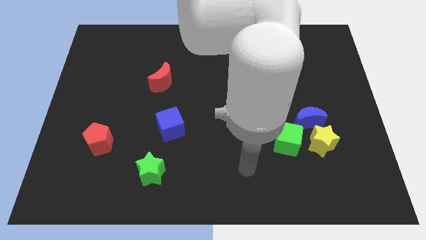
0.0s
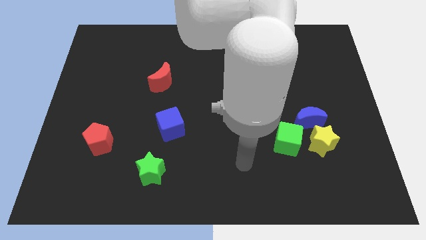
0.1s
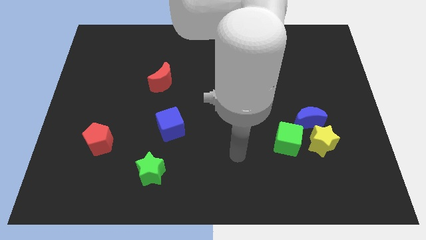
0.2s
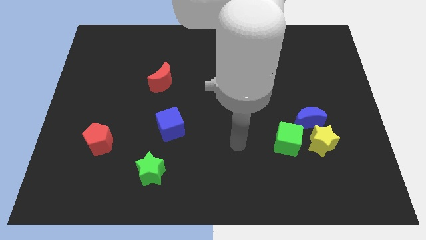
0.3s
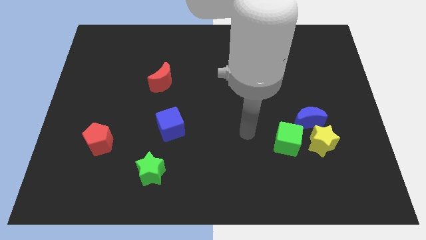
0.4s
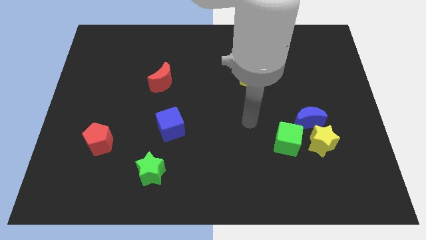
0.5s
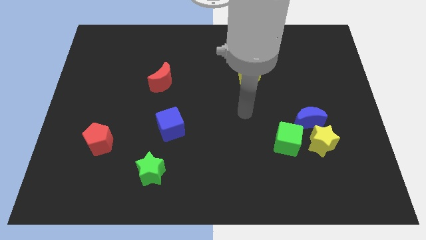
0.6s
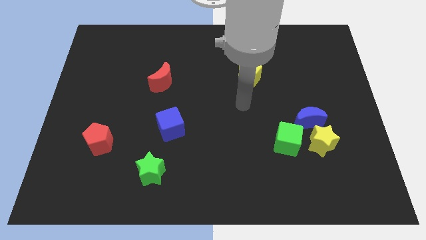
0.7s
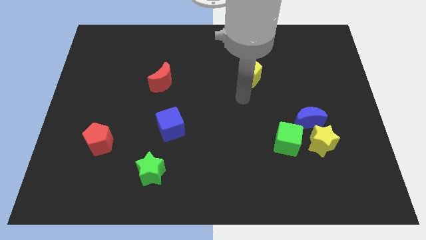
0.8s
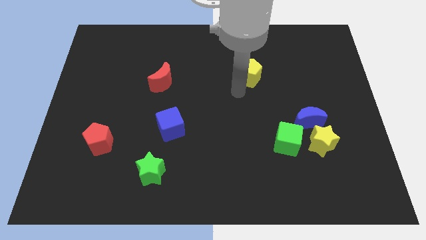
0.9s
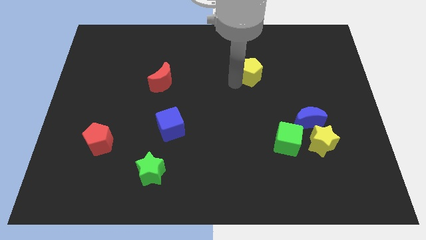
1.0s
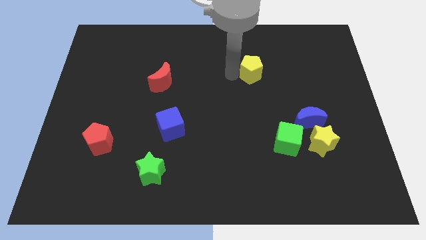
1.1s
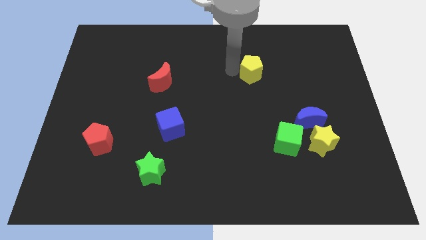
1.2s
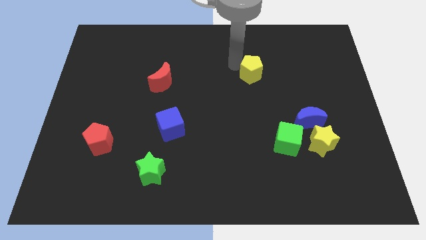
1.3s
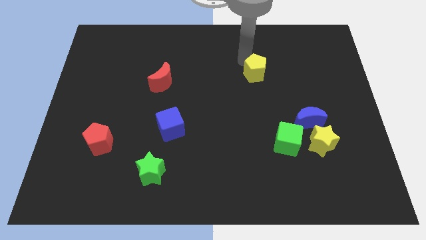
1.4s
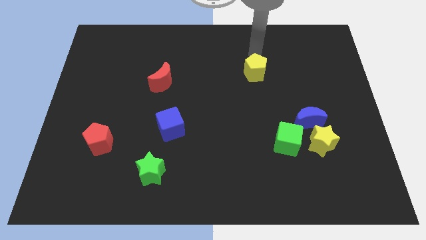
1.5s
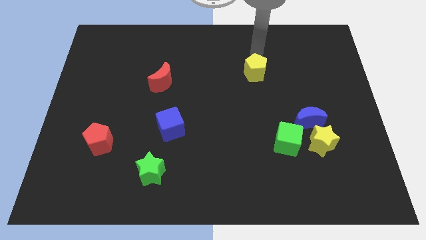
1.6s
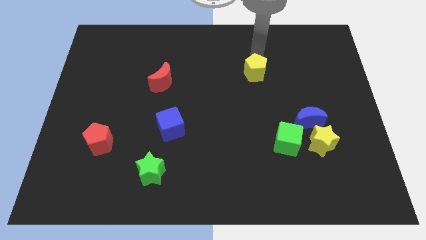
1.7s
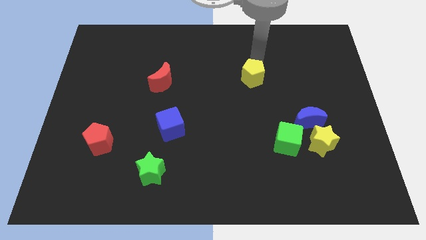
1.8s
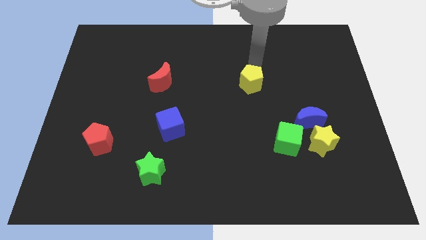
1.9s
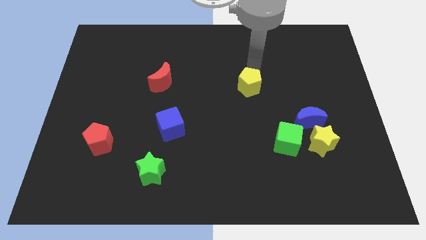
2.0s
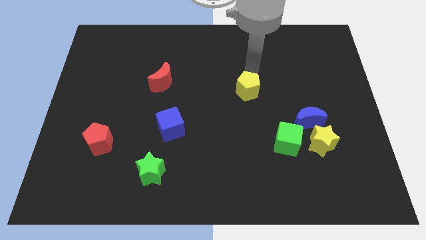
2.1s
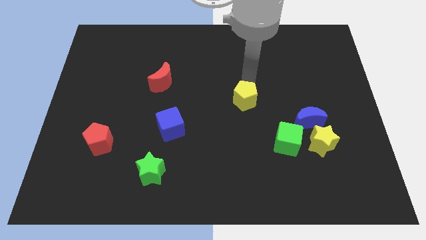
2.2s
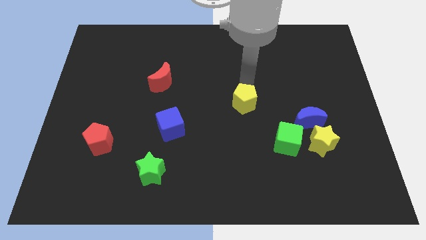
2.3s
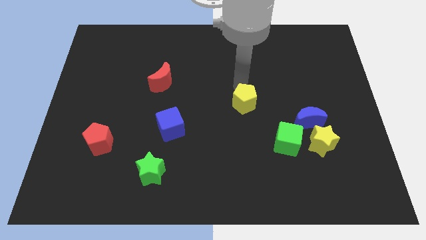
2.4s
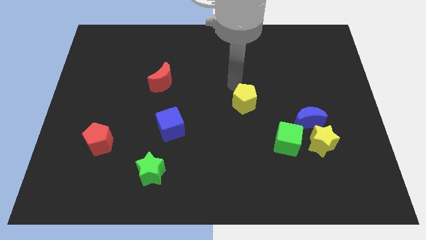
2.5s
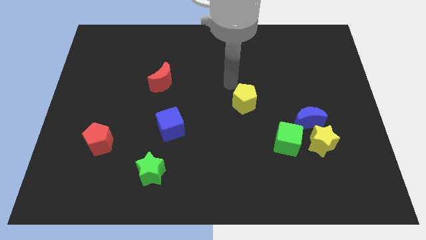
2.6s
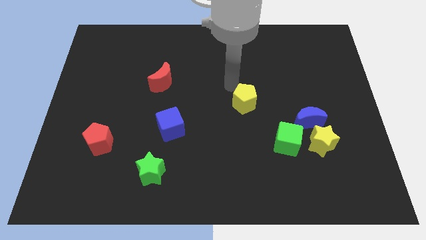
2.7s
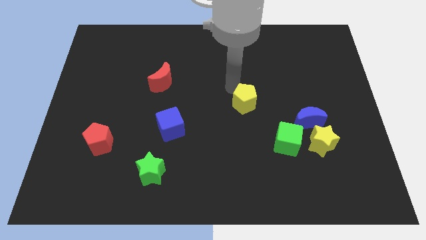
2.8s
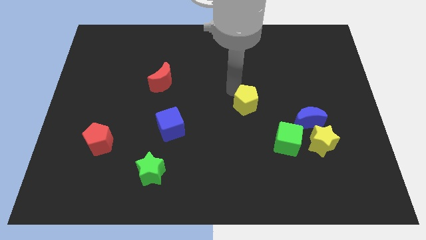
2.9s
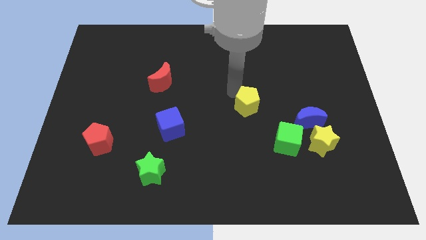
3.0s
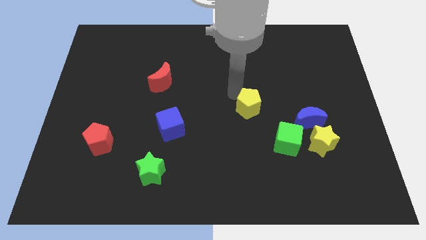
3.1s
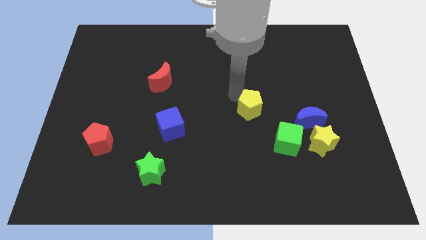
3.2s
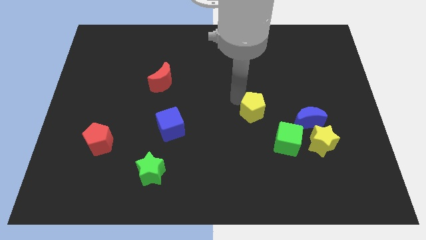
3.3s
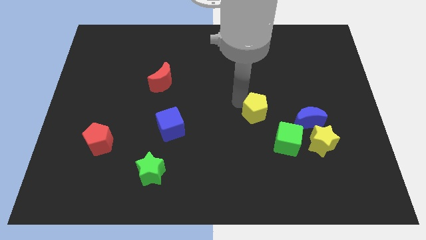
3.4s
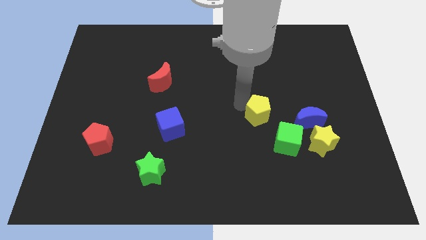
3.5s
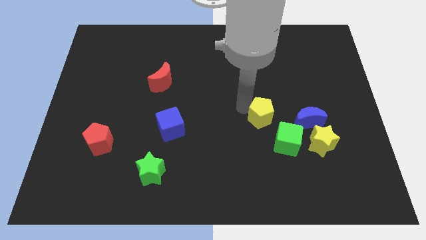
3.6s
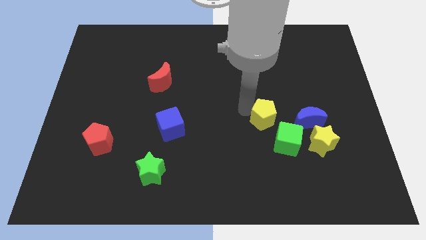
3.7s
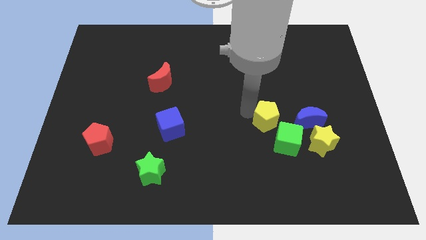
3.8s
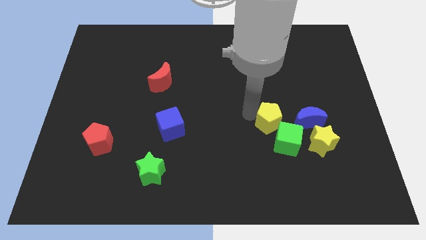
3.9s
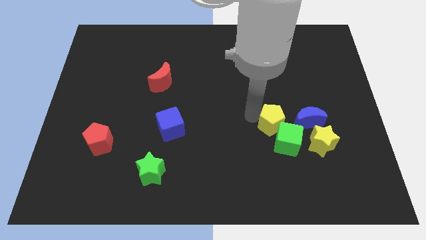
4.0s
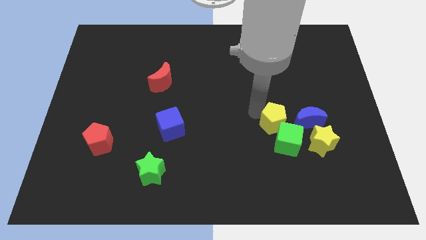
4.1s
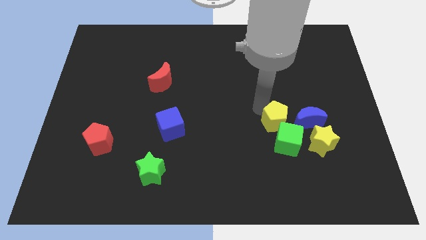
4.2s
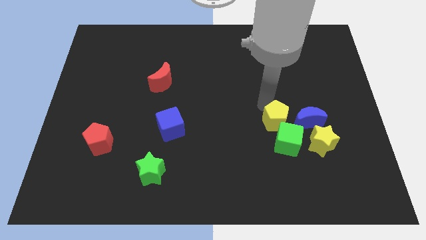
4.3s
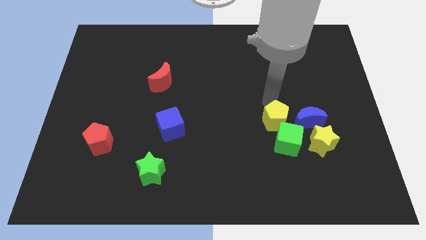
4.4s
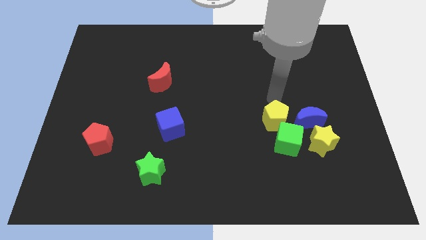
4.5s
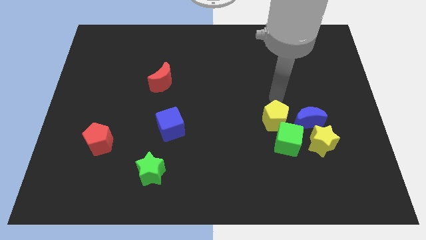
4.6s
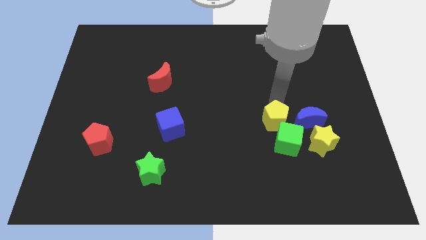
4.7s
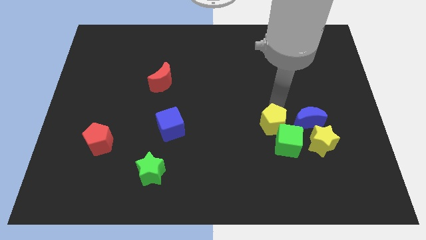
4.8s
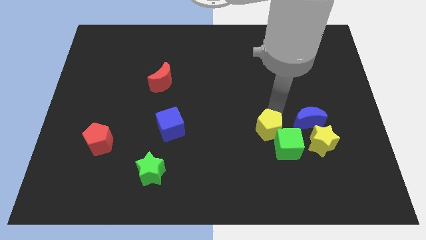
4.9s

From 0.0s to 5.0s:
move the yellow pentagon just left of the yellow star

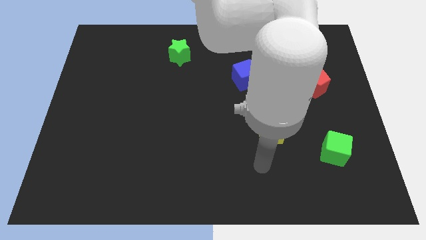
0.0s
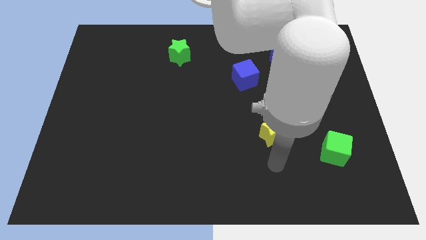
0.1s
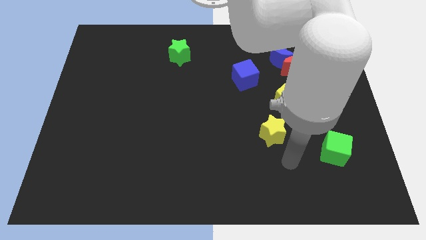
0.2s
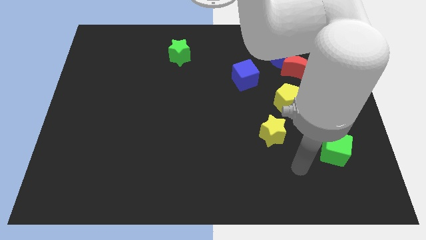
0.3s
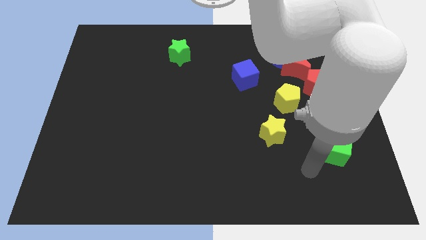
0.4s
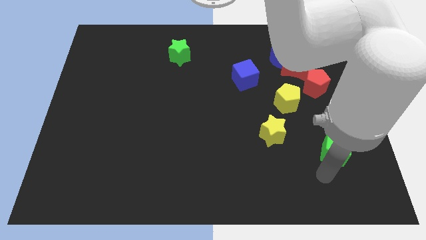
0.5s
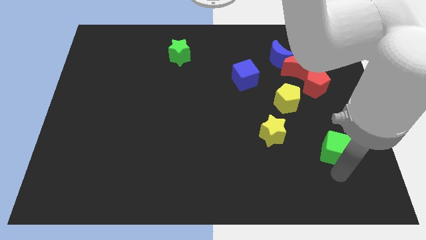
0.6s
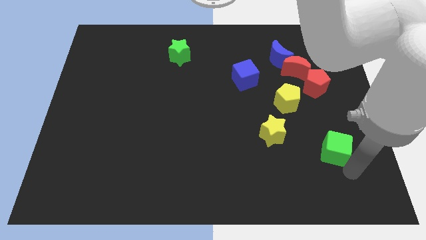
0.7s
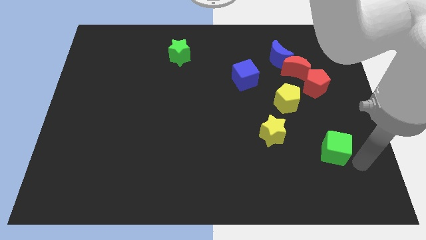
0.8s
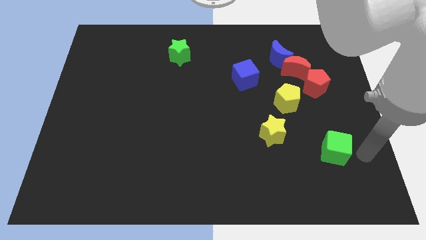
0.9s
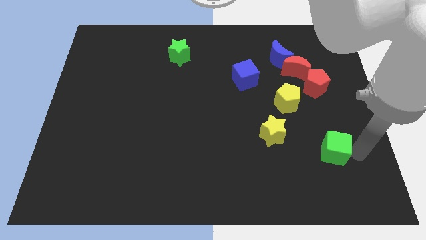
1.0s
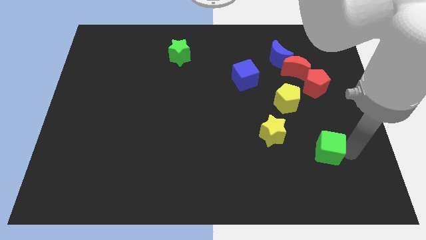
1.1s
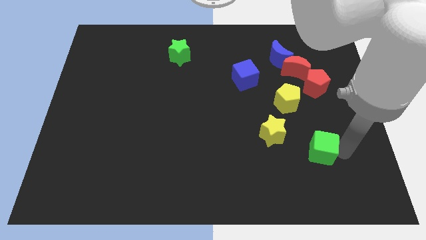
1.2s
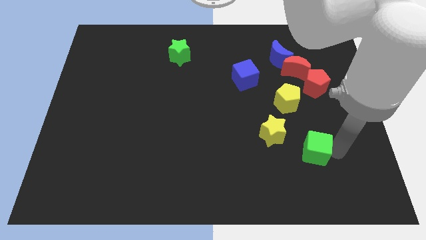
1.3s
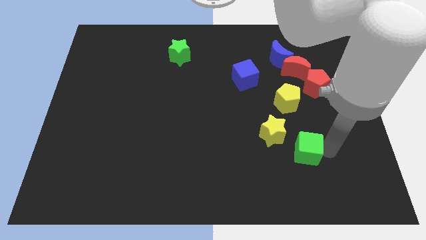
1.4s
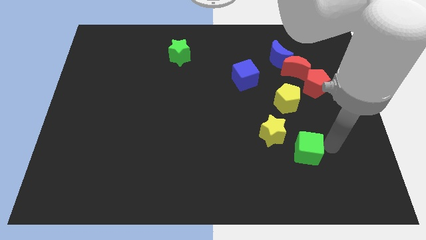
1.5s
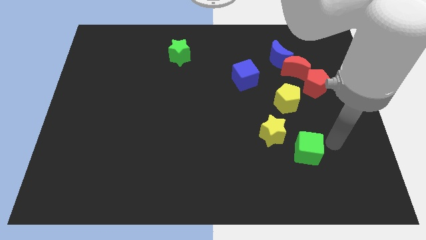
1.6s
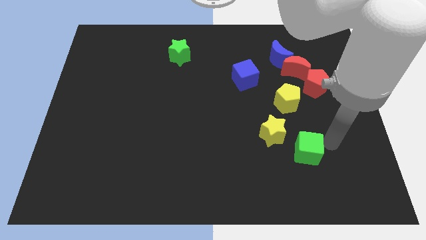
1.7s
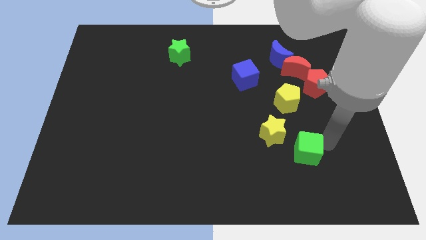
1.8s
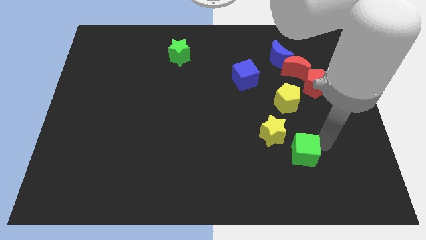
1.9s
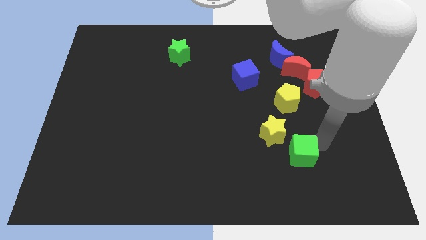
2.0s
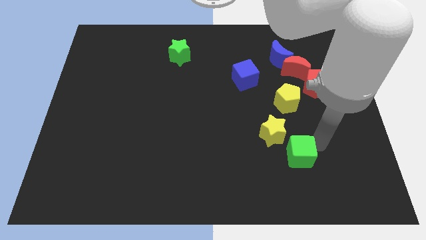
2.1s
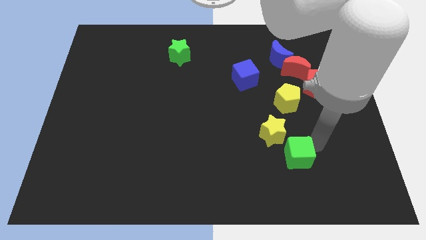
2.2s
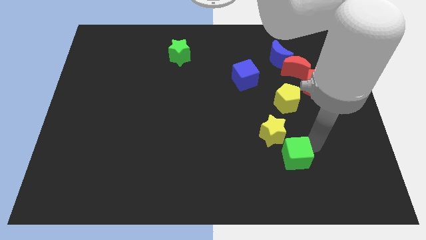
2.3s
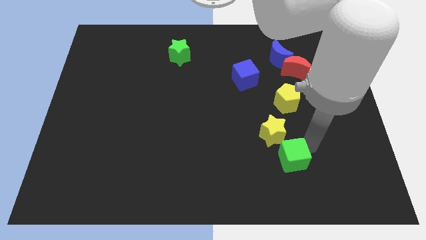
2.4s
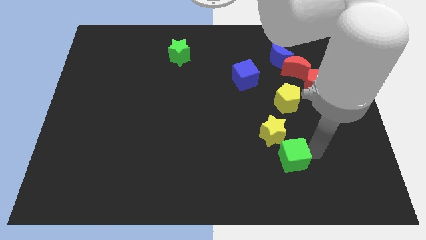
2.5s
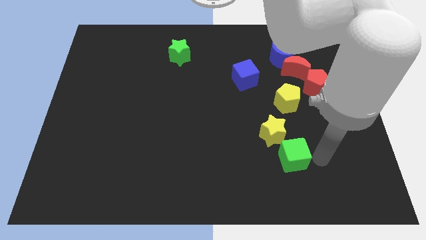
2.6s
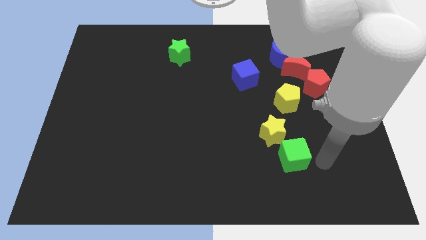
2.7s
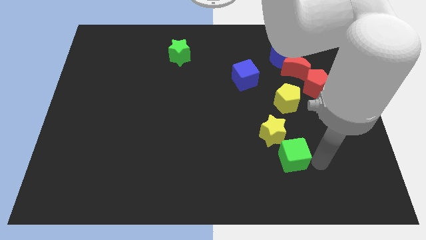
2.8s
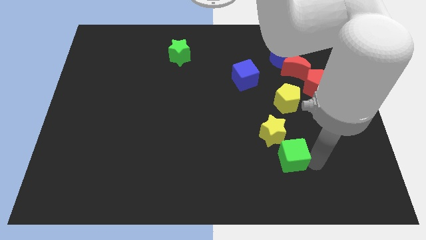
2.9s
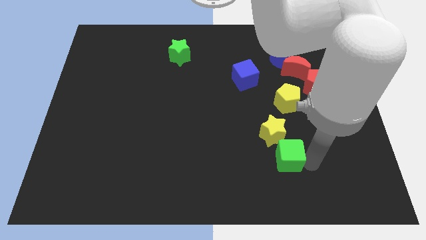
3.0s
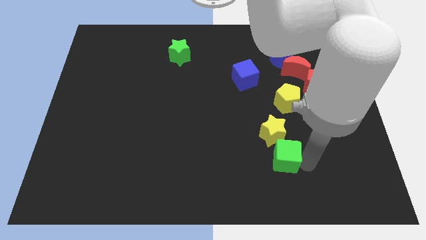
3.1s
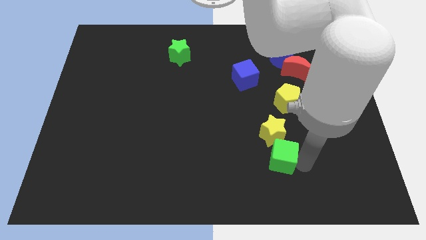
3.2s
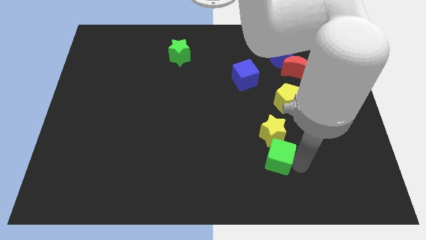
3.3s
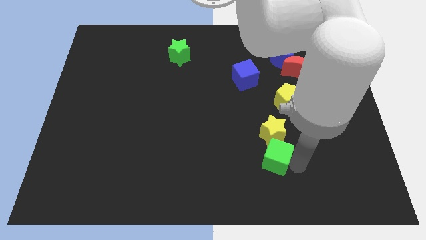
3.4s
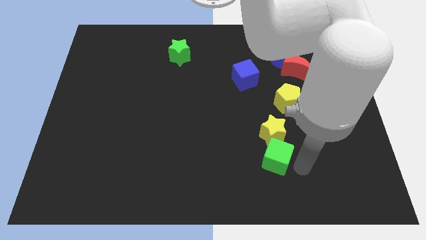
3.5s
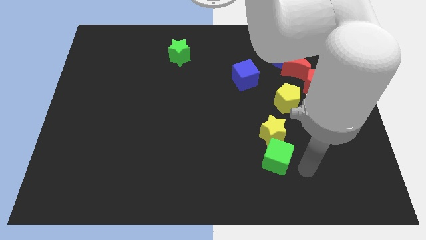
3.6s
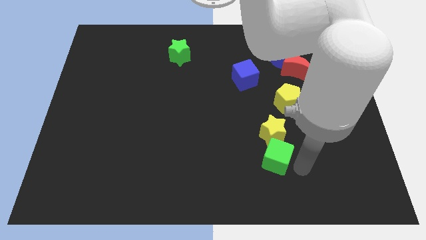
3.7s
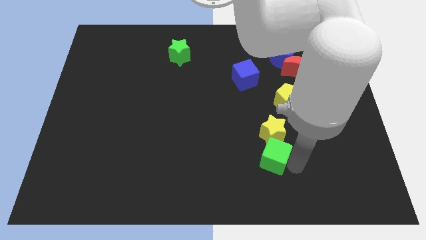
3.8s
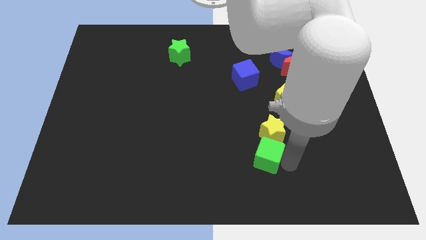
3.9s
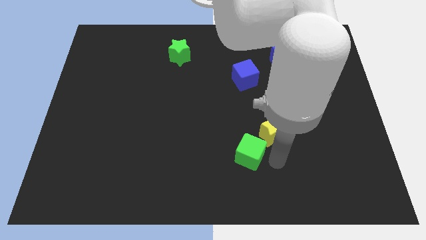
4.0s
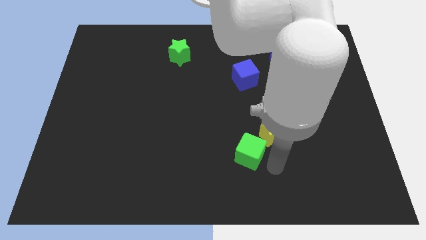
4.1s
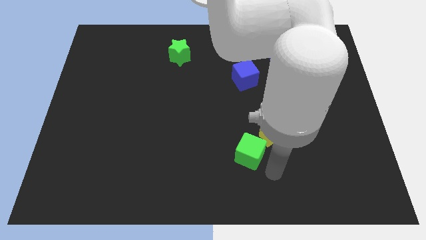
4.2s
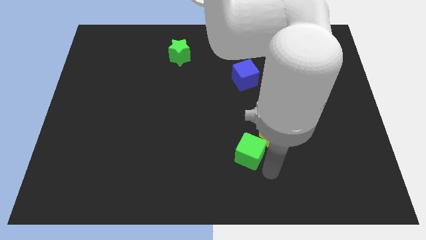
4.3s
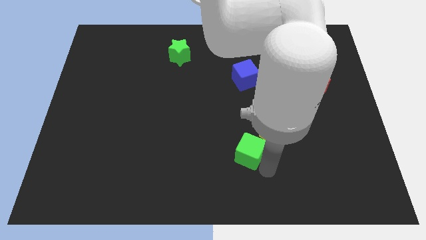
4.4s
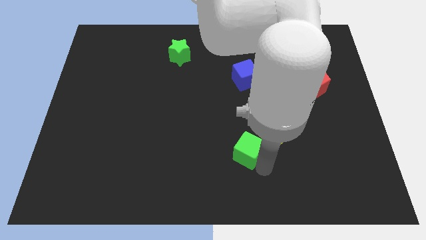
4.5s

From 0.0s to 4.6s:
put the green cube to the left side of the yellow star
